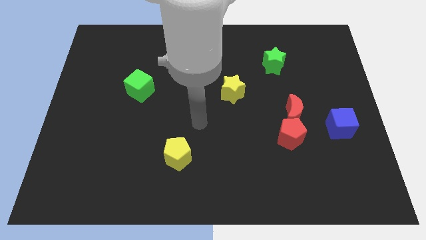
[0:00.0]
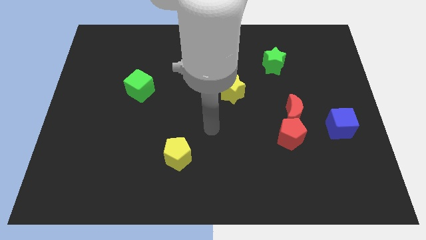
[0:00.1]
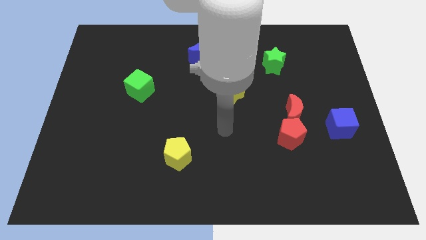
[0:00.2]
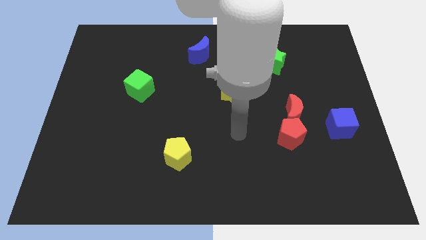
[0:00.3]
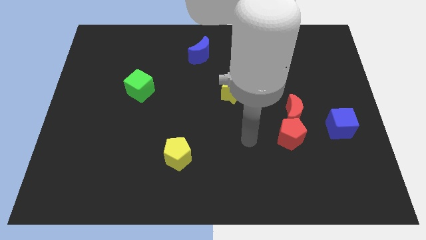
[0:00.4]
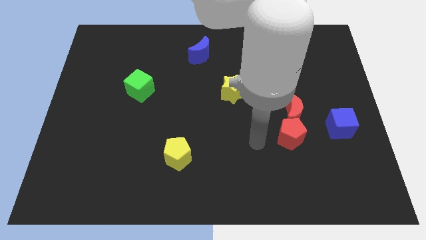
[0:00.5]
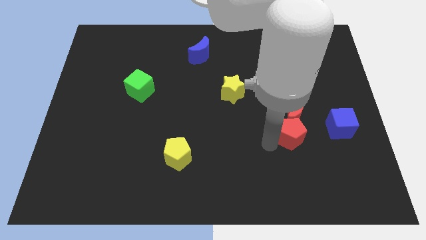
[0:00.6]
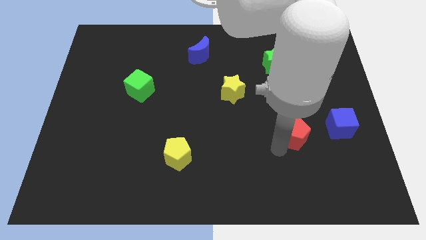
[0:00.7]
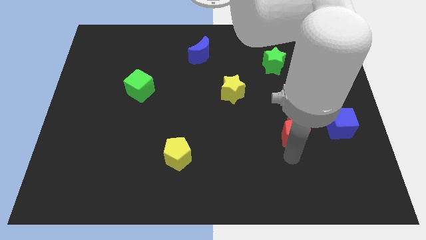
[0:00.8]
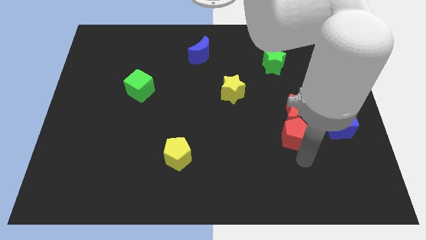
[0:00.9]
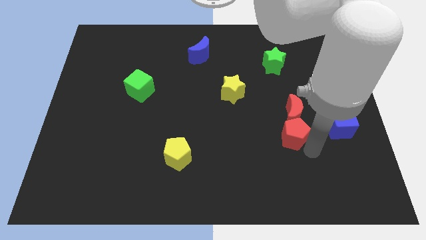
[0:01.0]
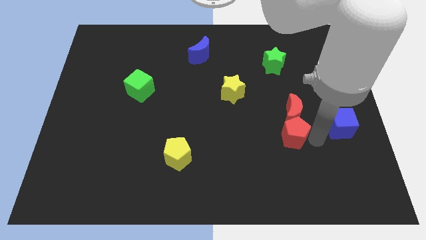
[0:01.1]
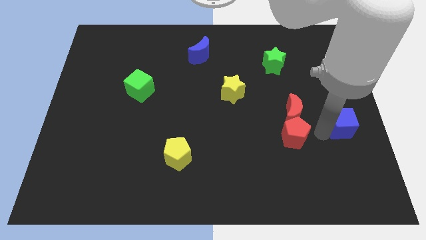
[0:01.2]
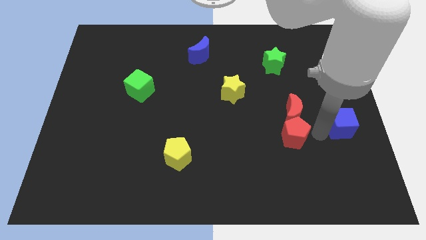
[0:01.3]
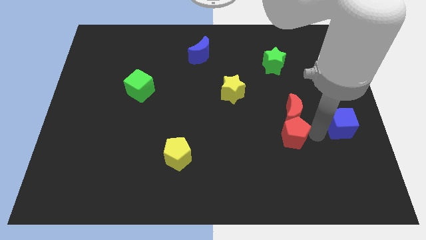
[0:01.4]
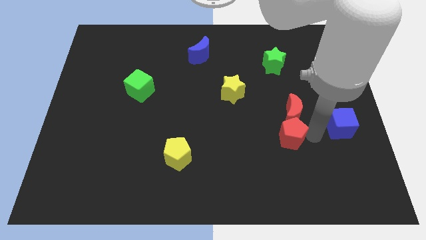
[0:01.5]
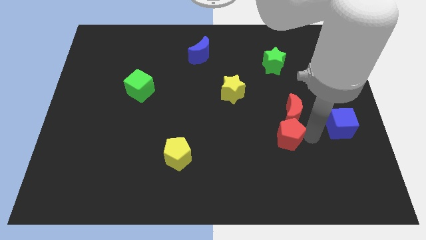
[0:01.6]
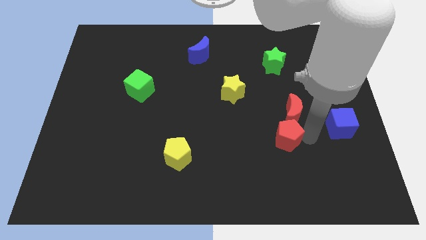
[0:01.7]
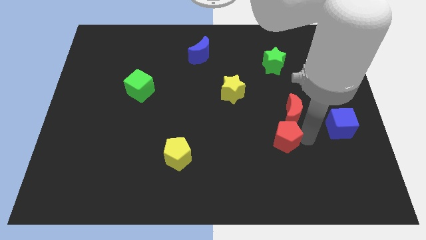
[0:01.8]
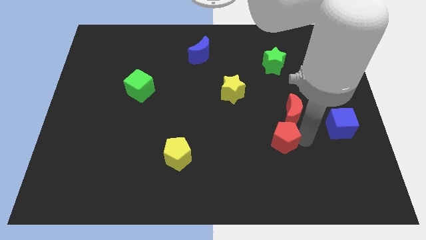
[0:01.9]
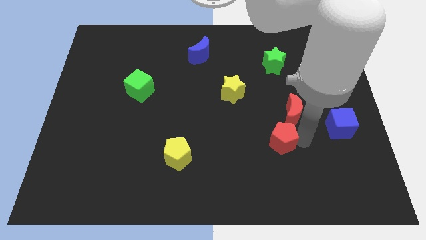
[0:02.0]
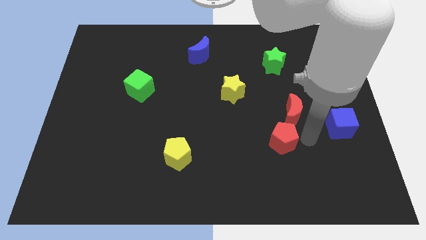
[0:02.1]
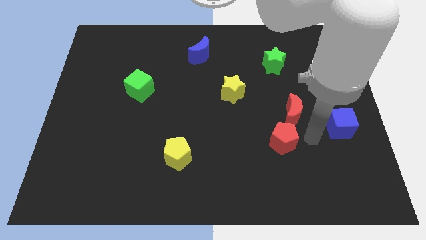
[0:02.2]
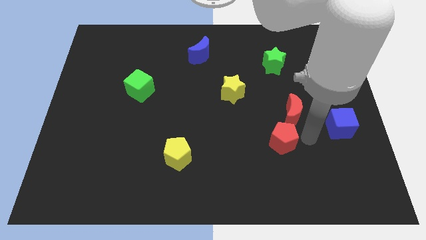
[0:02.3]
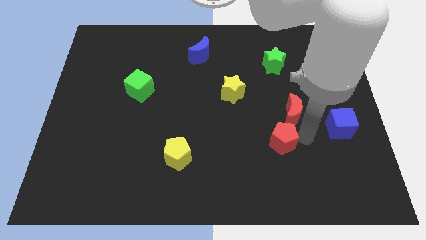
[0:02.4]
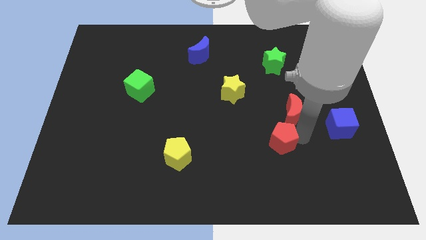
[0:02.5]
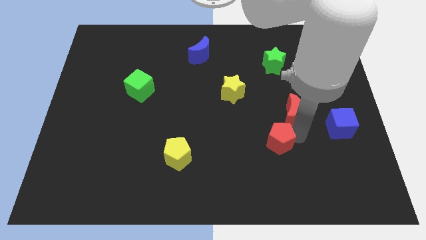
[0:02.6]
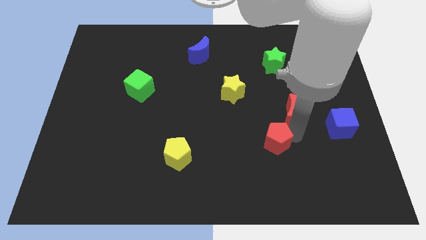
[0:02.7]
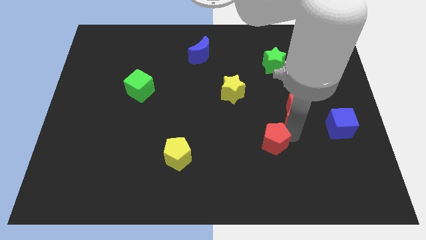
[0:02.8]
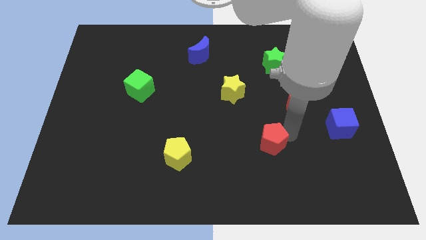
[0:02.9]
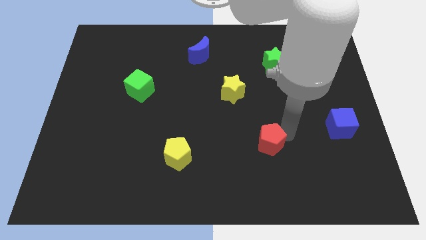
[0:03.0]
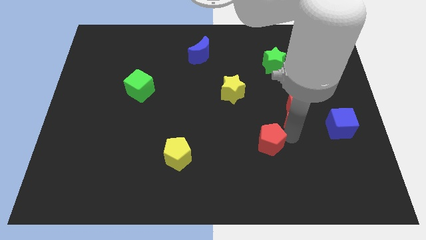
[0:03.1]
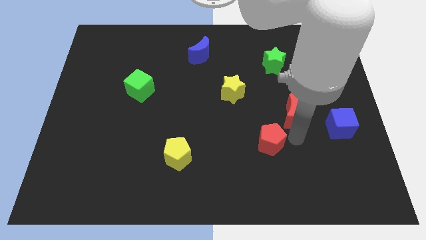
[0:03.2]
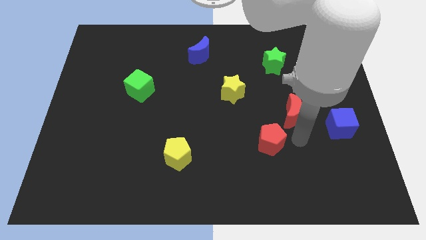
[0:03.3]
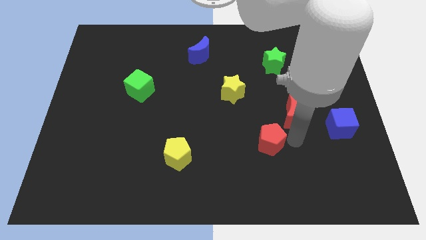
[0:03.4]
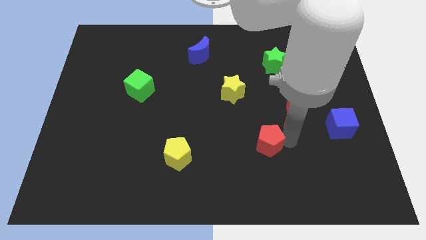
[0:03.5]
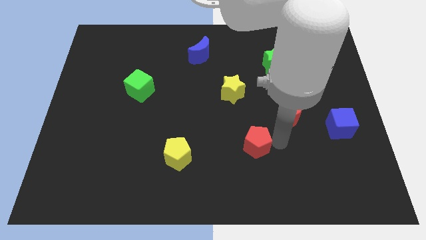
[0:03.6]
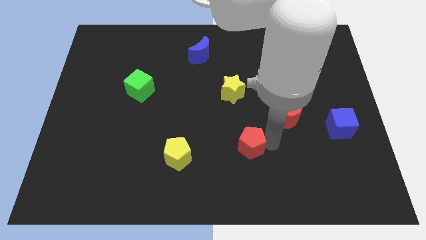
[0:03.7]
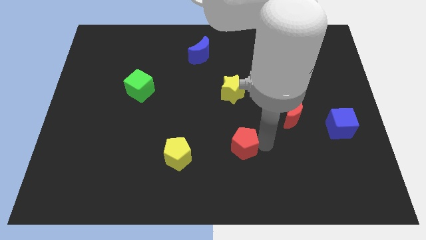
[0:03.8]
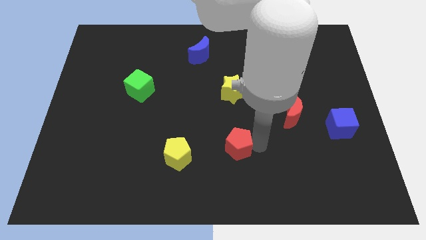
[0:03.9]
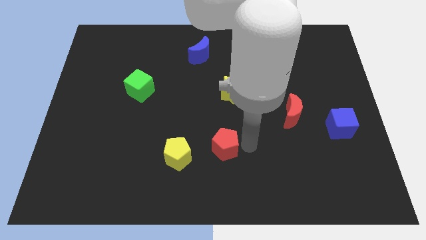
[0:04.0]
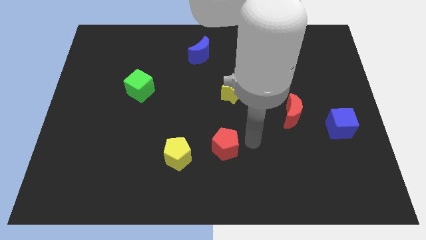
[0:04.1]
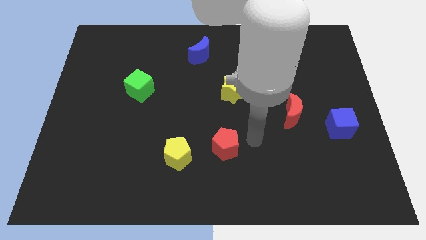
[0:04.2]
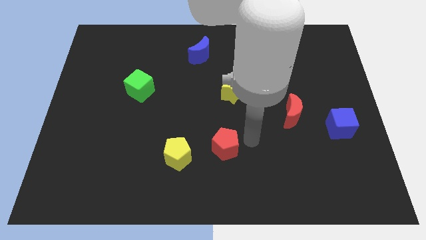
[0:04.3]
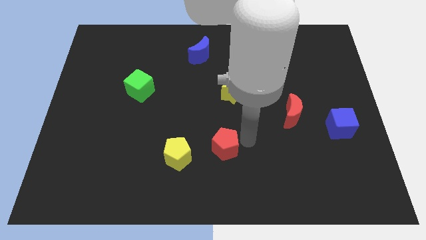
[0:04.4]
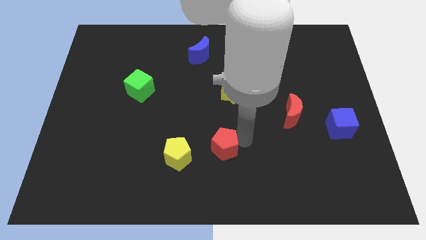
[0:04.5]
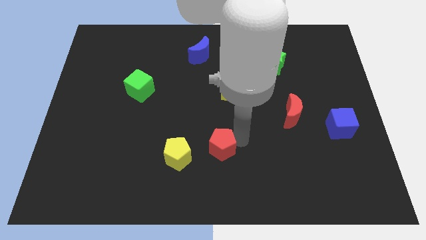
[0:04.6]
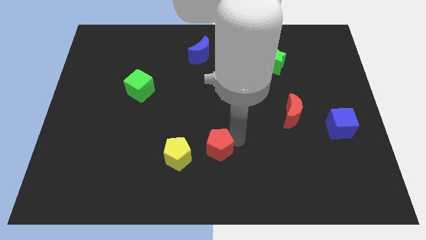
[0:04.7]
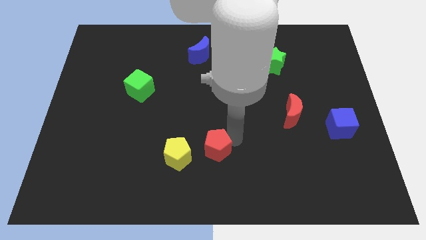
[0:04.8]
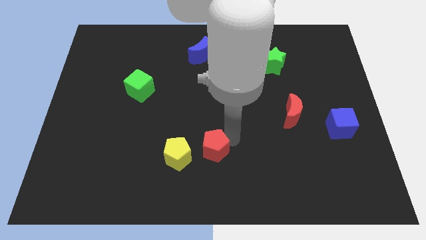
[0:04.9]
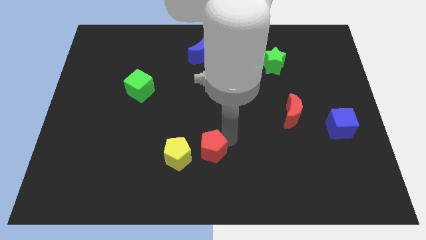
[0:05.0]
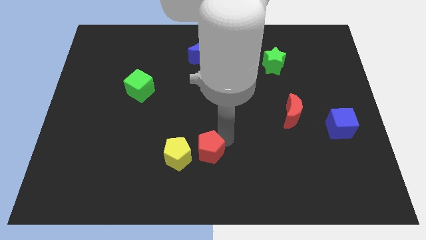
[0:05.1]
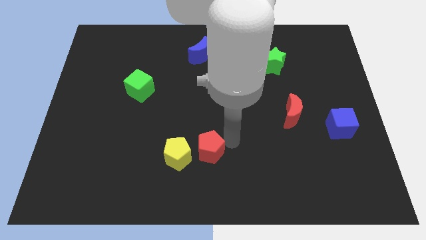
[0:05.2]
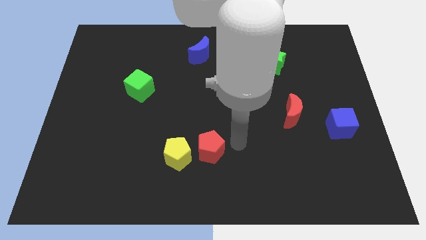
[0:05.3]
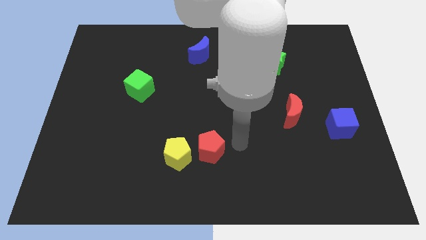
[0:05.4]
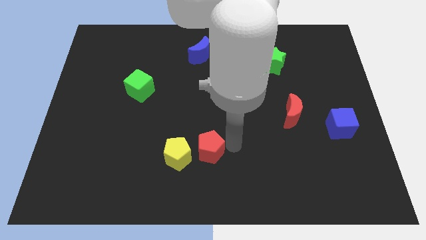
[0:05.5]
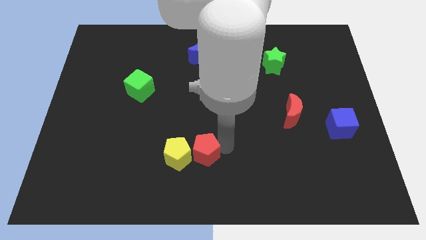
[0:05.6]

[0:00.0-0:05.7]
move the red pentagon towards the yellow pentagon

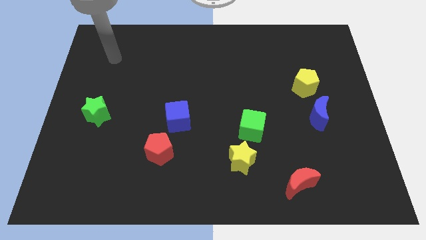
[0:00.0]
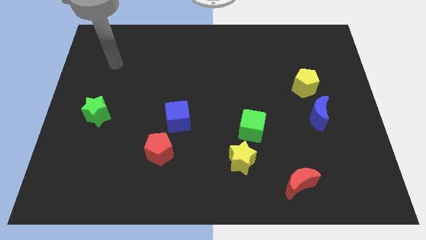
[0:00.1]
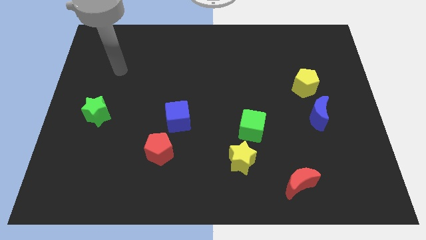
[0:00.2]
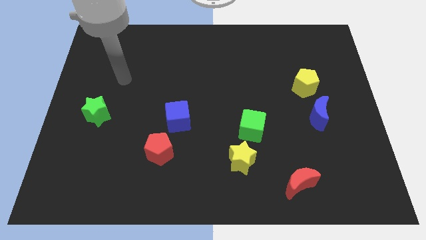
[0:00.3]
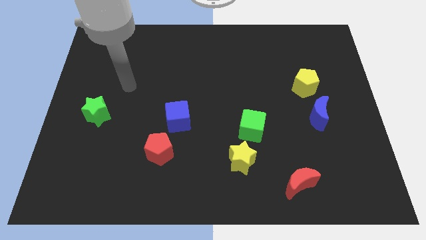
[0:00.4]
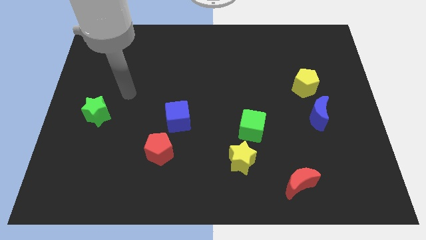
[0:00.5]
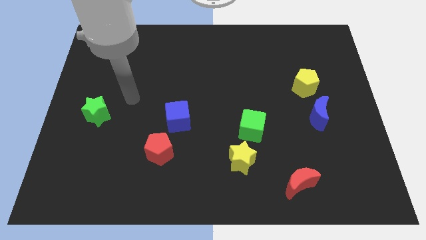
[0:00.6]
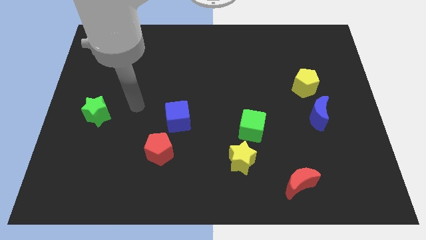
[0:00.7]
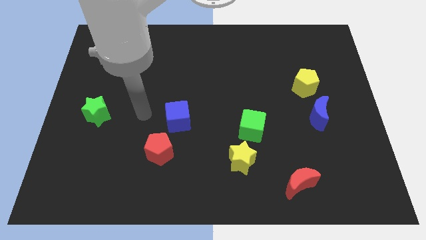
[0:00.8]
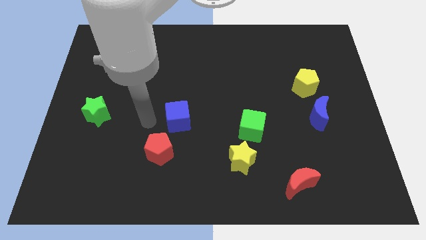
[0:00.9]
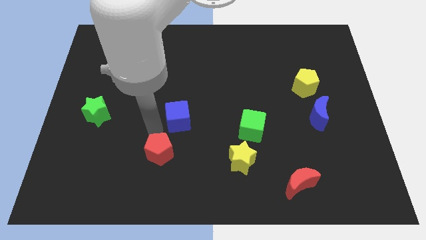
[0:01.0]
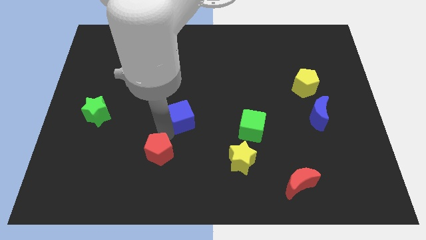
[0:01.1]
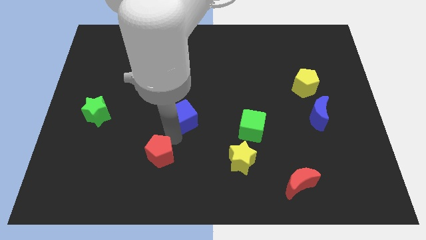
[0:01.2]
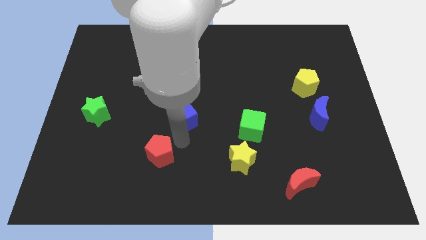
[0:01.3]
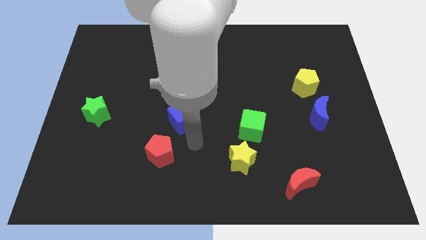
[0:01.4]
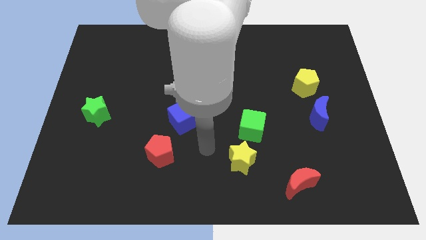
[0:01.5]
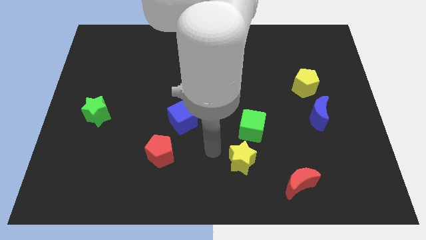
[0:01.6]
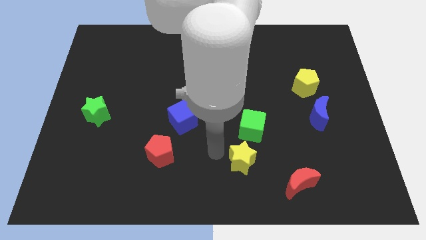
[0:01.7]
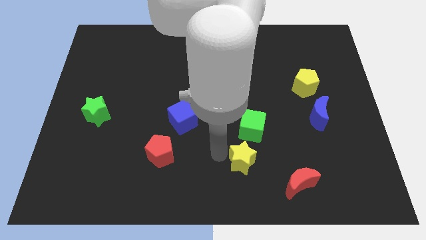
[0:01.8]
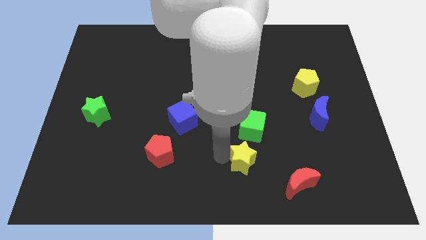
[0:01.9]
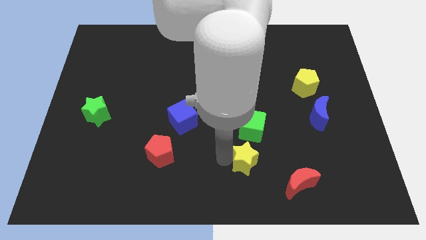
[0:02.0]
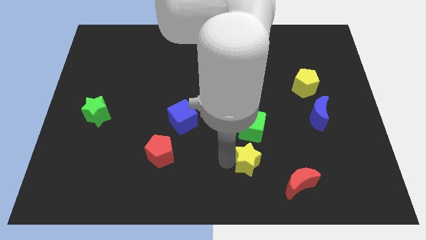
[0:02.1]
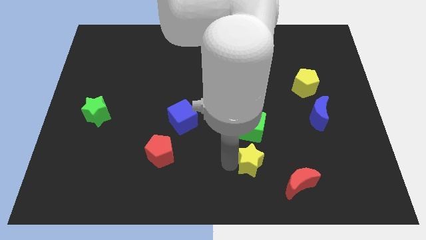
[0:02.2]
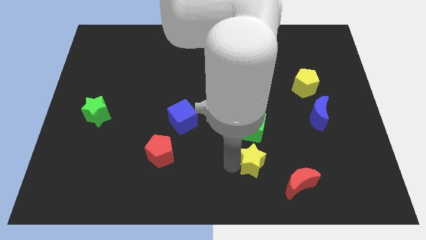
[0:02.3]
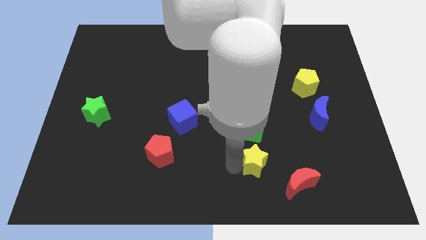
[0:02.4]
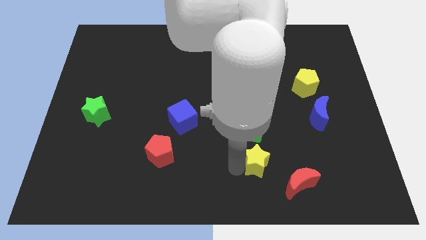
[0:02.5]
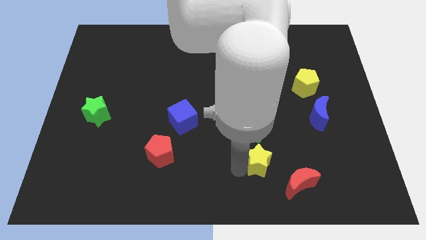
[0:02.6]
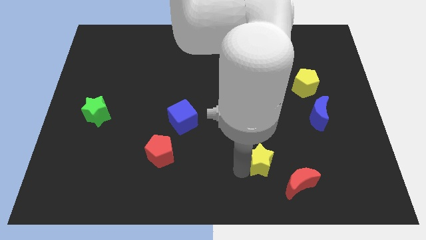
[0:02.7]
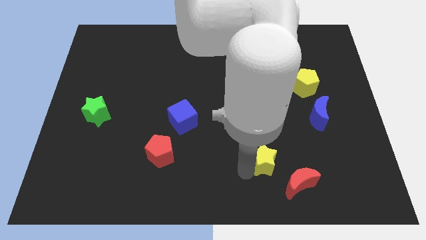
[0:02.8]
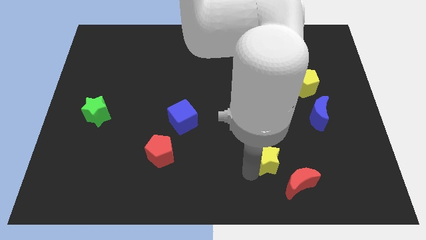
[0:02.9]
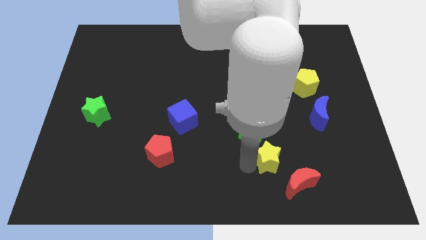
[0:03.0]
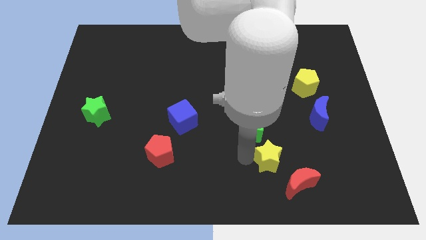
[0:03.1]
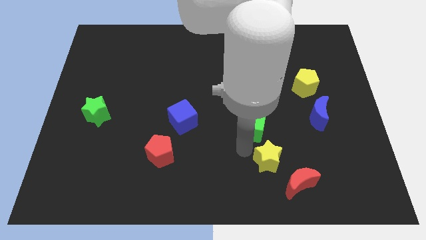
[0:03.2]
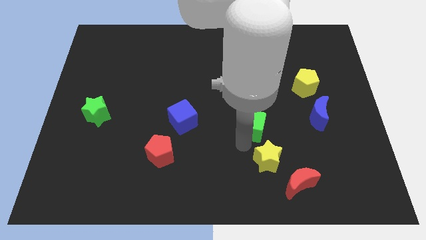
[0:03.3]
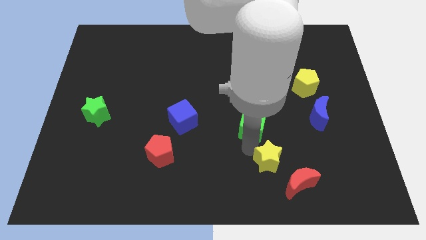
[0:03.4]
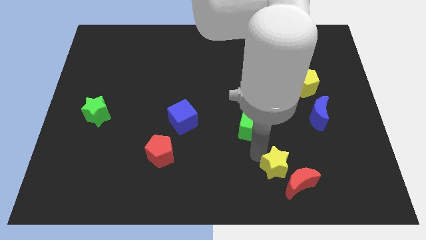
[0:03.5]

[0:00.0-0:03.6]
move the yellow star next to the red moon
